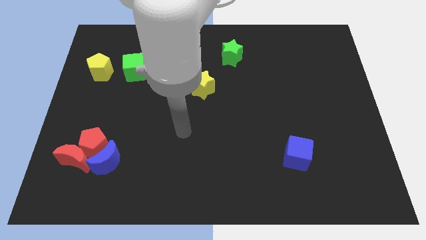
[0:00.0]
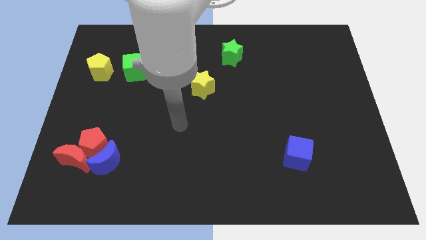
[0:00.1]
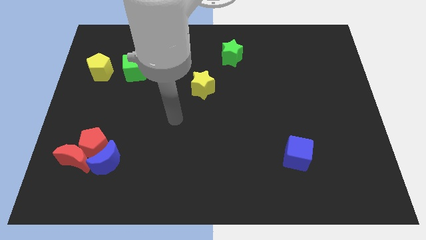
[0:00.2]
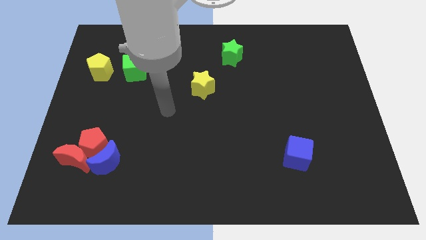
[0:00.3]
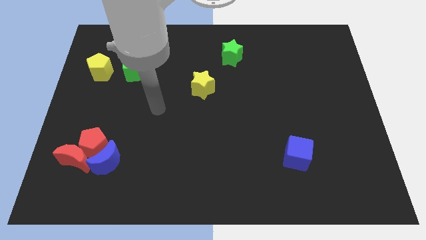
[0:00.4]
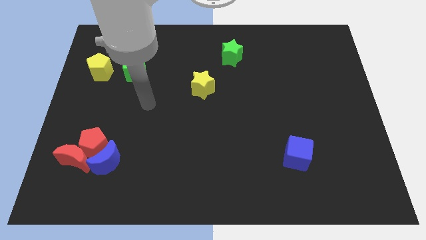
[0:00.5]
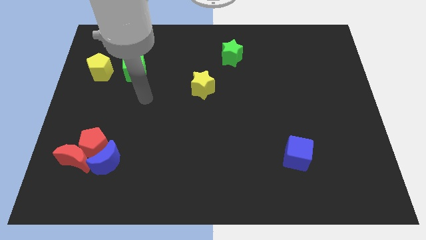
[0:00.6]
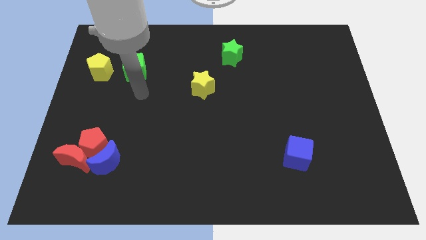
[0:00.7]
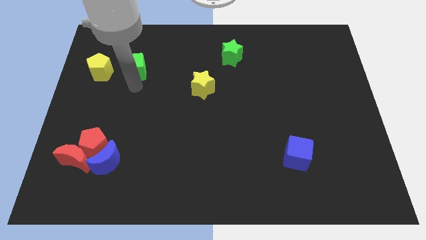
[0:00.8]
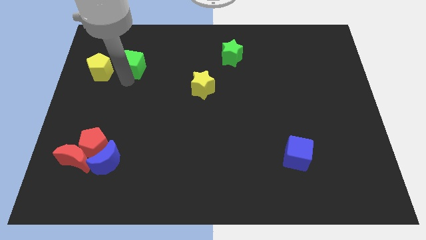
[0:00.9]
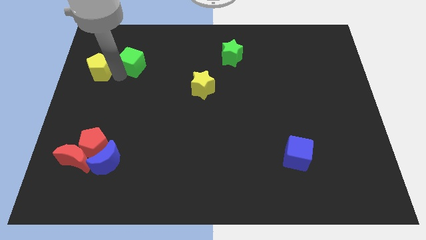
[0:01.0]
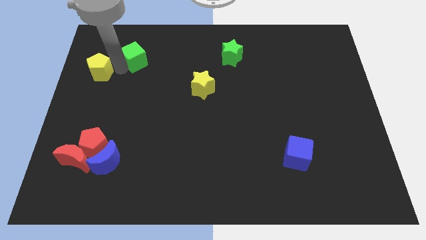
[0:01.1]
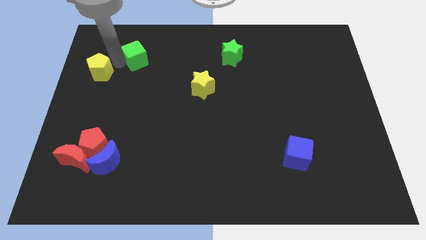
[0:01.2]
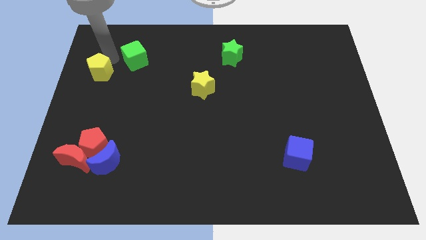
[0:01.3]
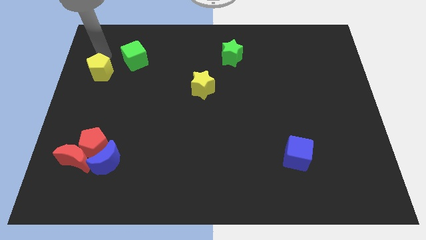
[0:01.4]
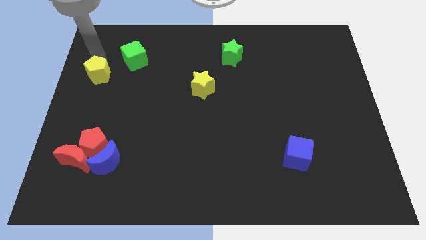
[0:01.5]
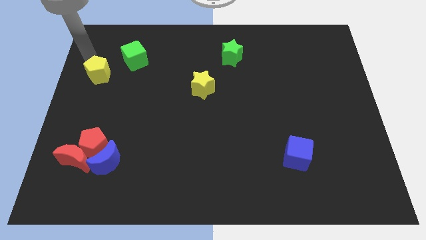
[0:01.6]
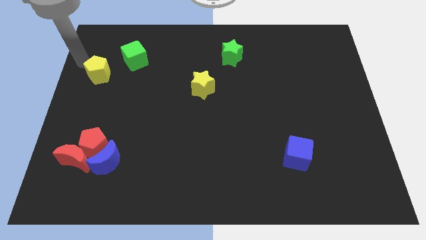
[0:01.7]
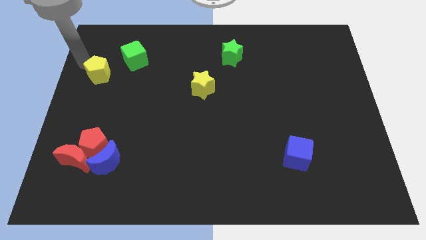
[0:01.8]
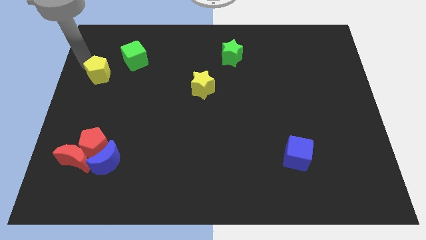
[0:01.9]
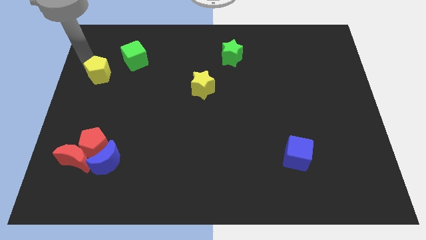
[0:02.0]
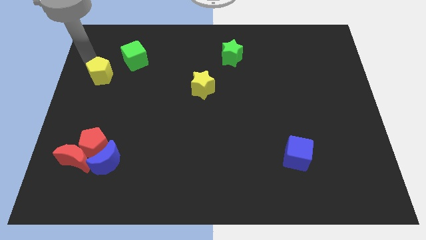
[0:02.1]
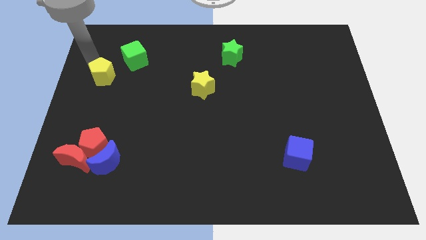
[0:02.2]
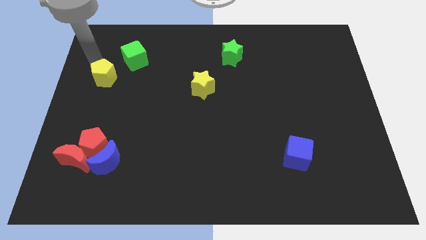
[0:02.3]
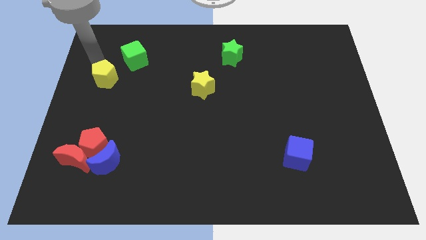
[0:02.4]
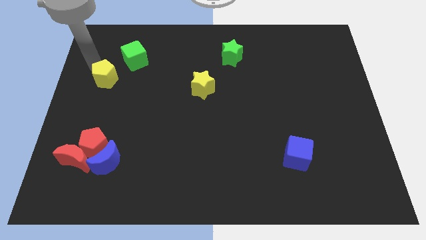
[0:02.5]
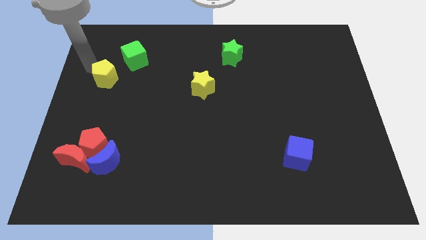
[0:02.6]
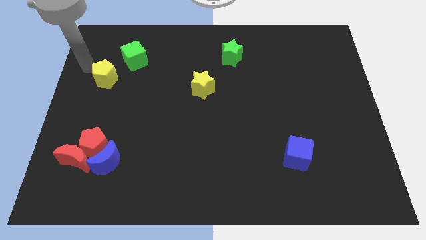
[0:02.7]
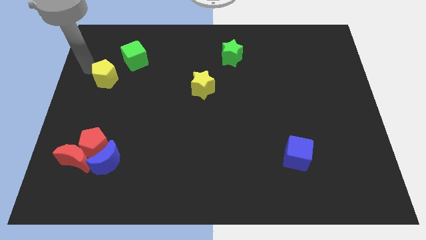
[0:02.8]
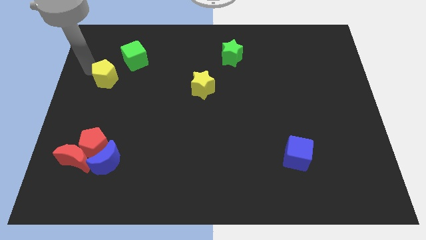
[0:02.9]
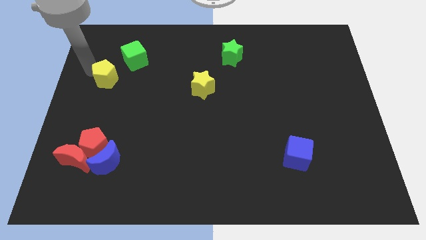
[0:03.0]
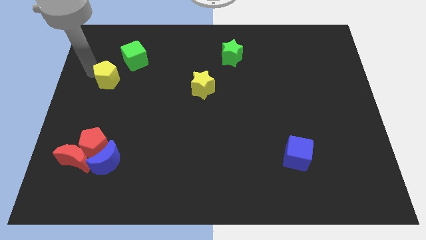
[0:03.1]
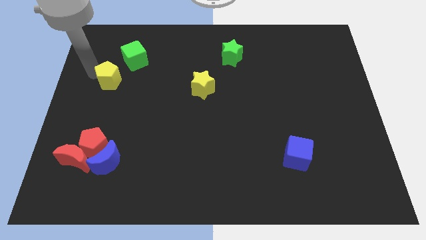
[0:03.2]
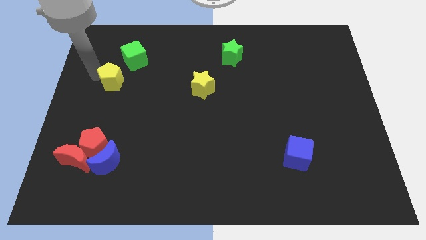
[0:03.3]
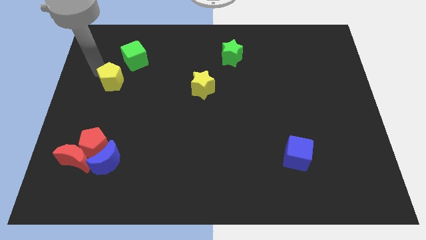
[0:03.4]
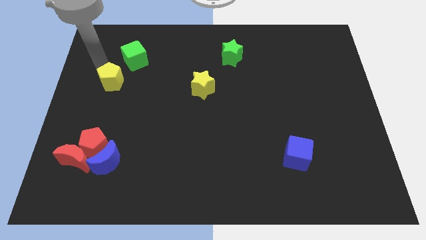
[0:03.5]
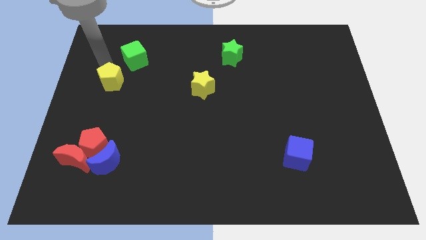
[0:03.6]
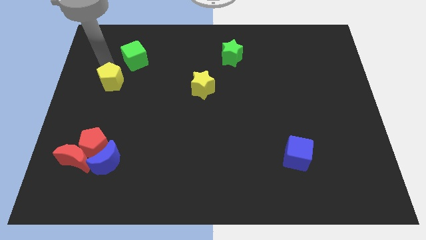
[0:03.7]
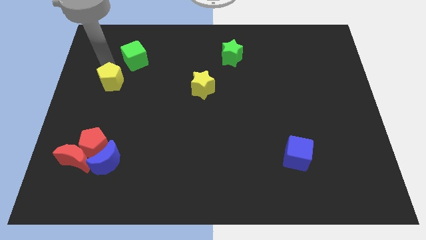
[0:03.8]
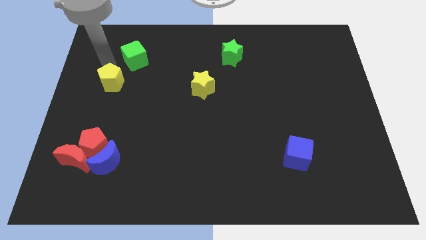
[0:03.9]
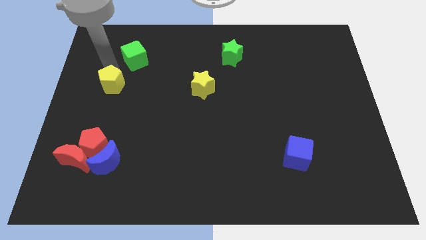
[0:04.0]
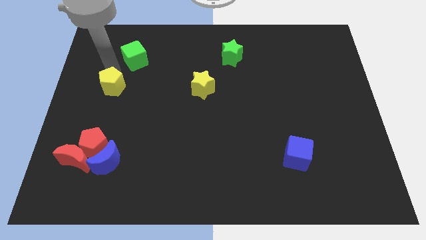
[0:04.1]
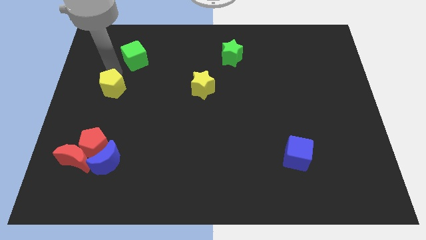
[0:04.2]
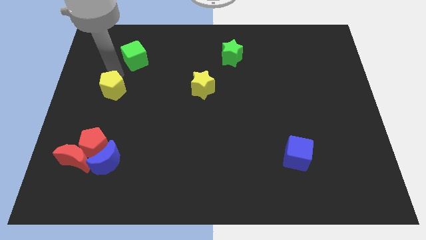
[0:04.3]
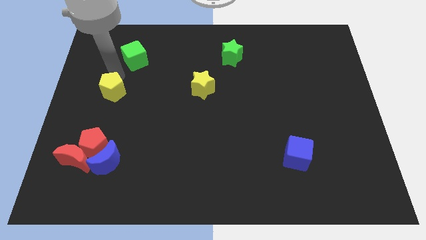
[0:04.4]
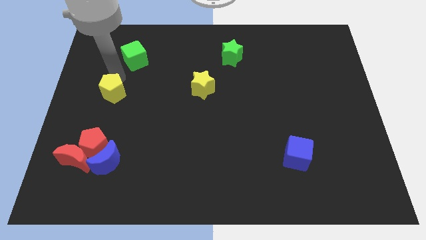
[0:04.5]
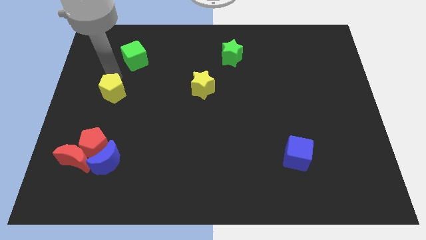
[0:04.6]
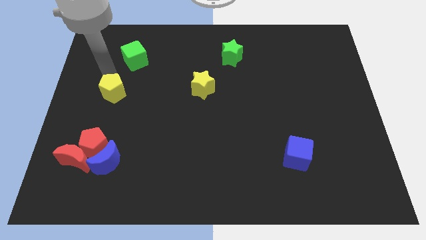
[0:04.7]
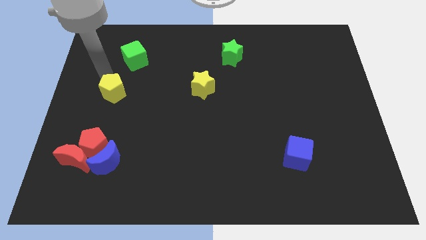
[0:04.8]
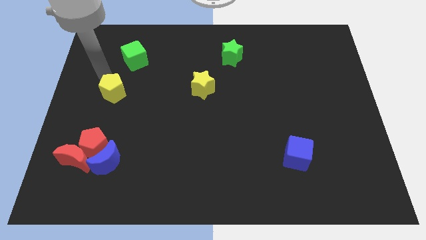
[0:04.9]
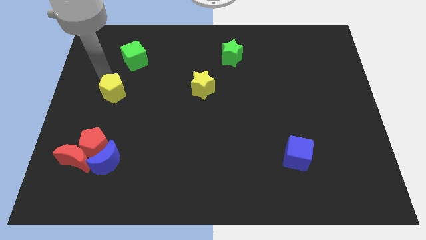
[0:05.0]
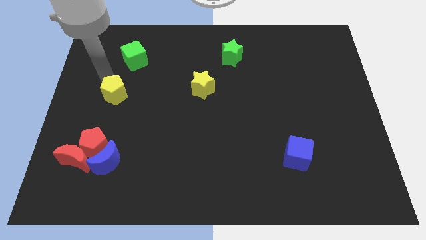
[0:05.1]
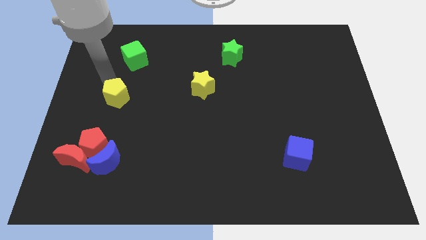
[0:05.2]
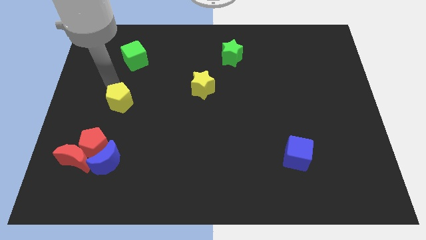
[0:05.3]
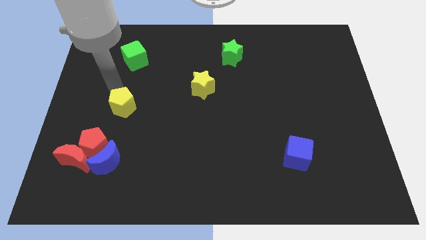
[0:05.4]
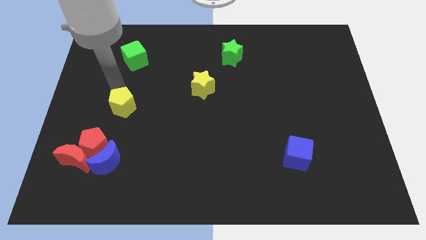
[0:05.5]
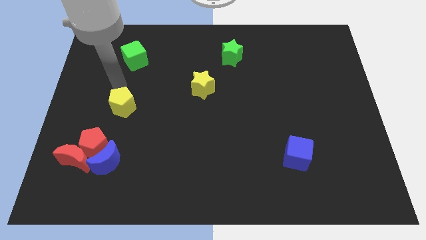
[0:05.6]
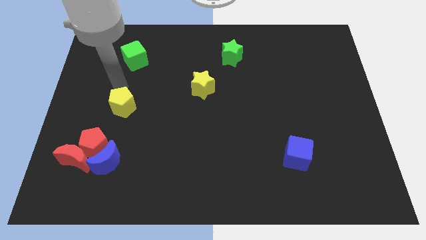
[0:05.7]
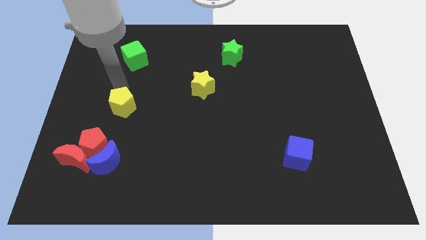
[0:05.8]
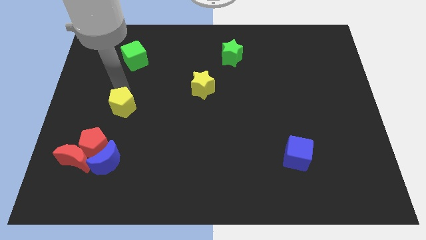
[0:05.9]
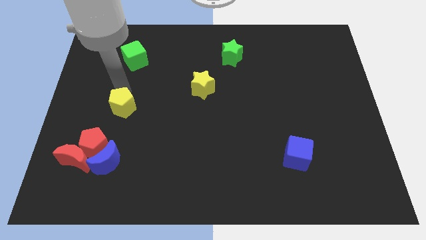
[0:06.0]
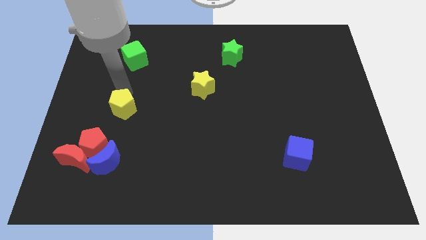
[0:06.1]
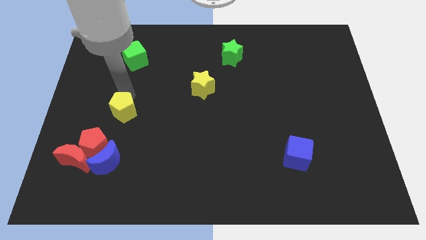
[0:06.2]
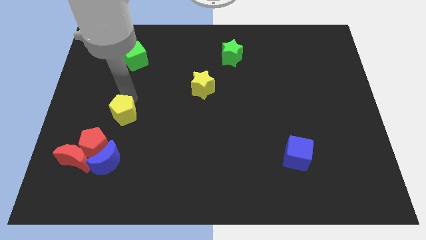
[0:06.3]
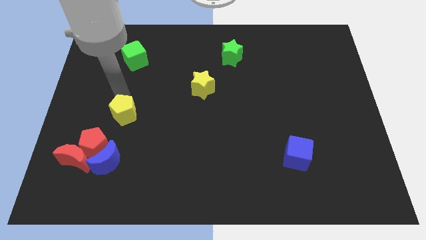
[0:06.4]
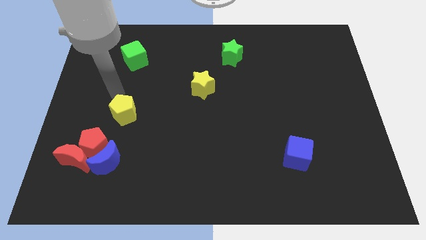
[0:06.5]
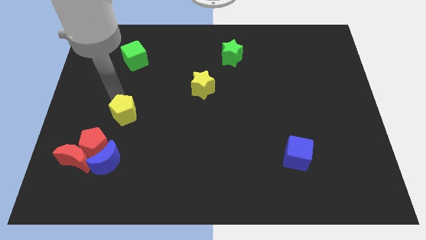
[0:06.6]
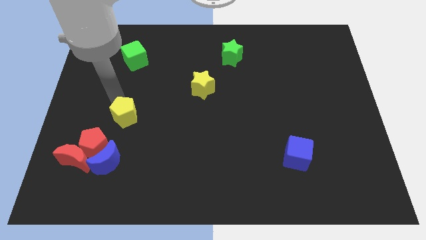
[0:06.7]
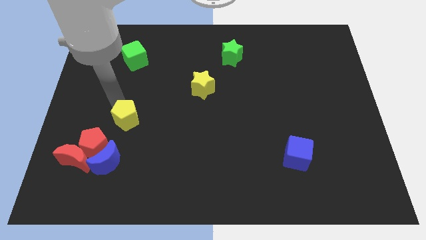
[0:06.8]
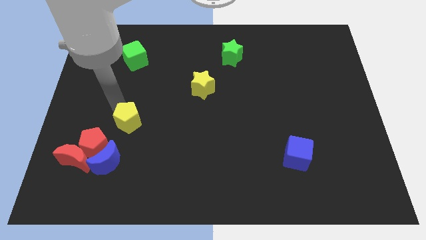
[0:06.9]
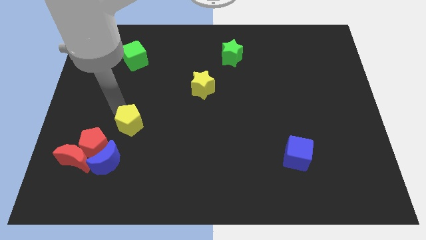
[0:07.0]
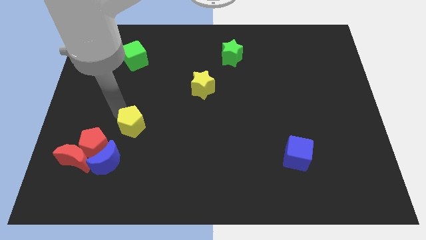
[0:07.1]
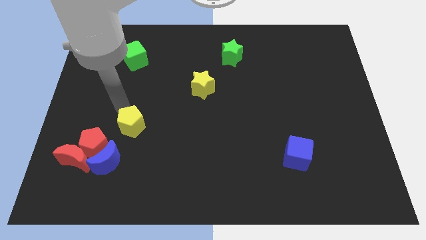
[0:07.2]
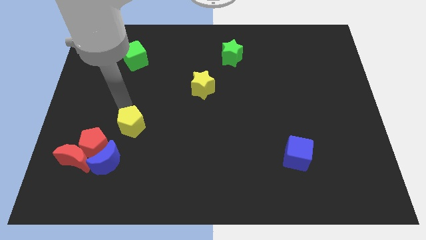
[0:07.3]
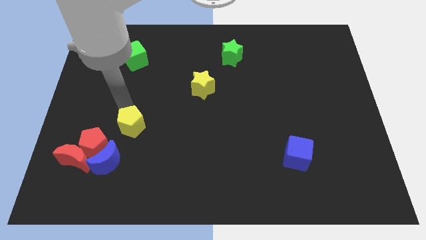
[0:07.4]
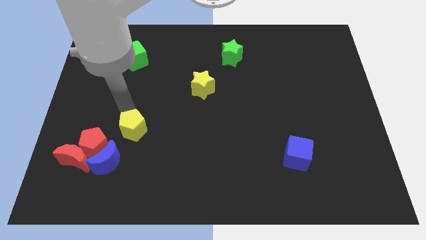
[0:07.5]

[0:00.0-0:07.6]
slide the yellow pentagon just right of the red pentagon

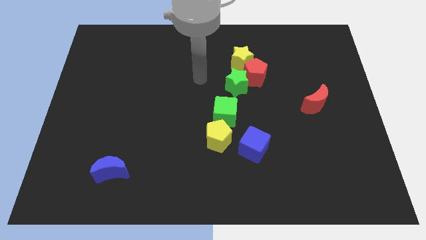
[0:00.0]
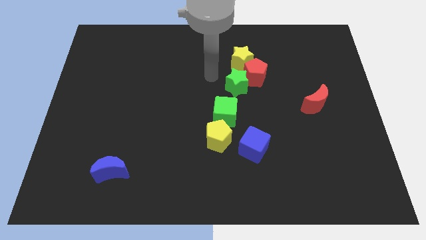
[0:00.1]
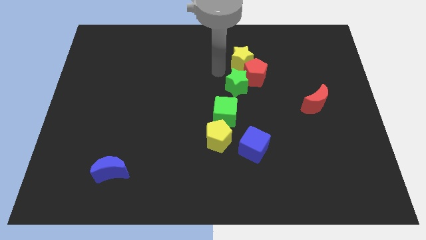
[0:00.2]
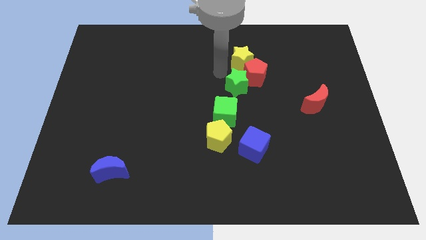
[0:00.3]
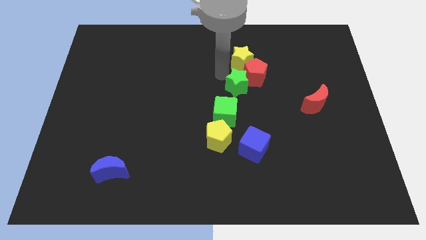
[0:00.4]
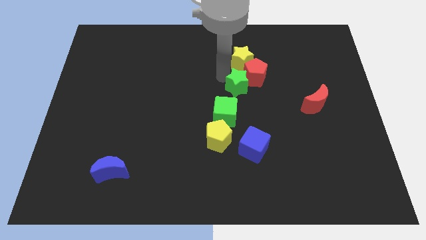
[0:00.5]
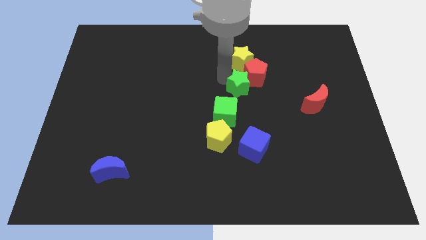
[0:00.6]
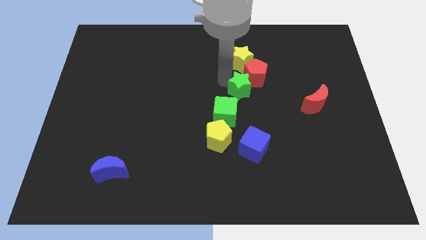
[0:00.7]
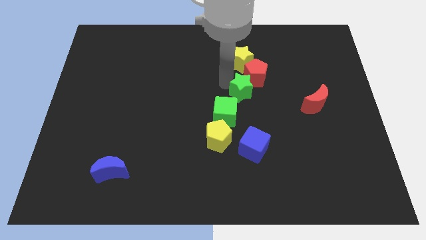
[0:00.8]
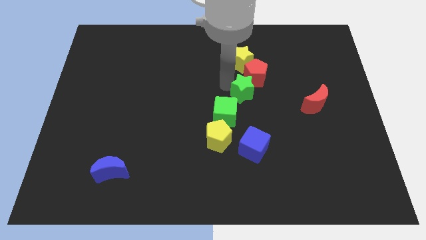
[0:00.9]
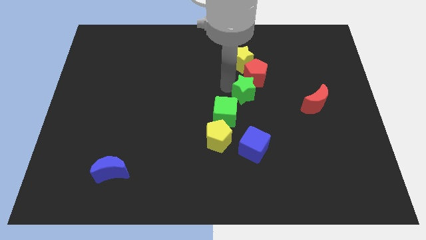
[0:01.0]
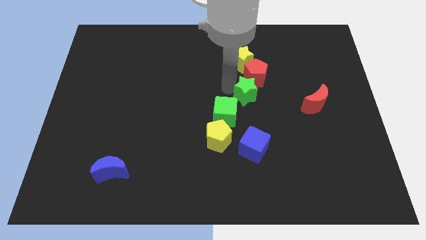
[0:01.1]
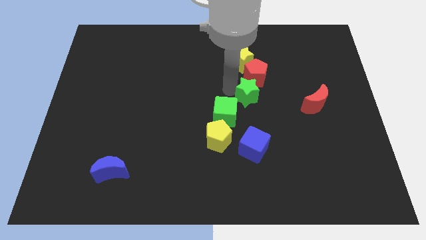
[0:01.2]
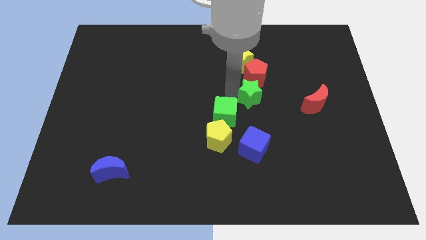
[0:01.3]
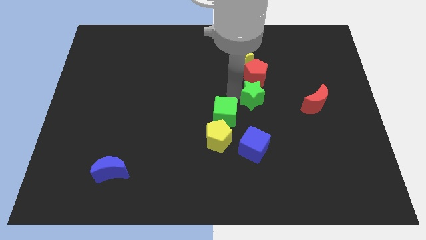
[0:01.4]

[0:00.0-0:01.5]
slide the green star to the right side of the green cube
